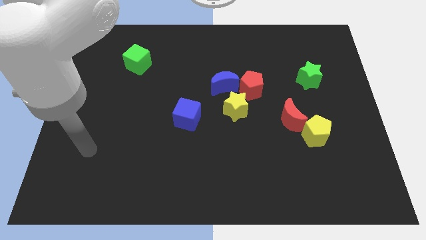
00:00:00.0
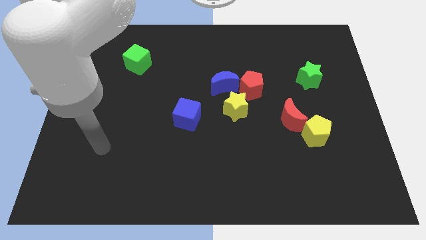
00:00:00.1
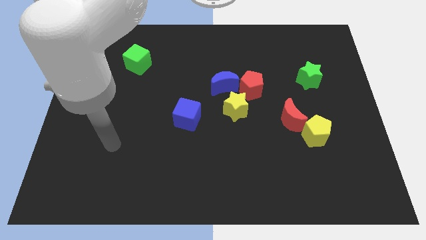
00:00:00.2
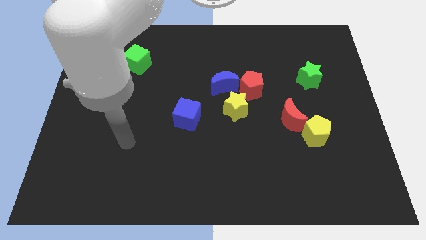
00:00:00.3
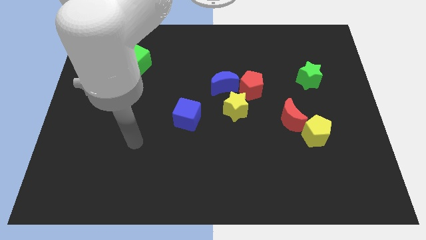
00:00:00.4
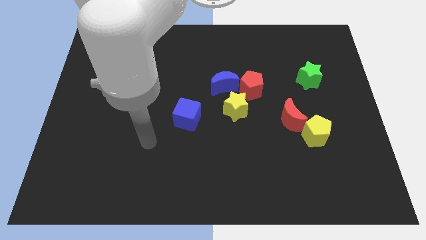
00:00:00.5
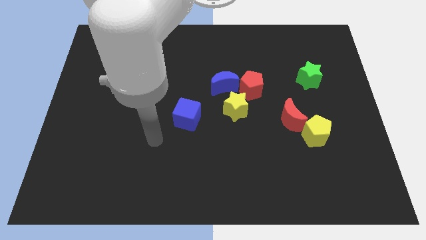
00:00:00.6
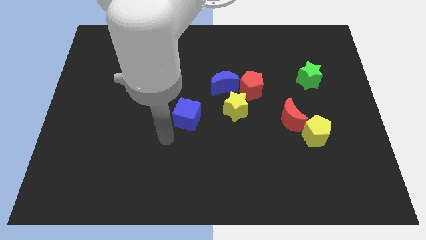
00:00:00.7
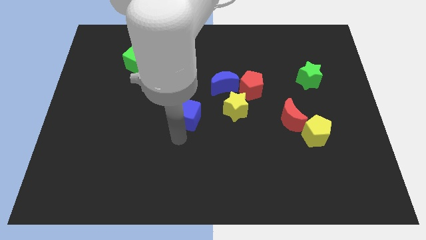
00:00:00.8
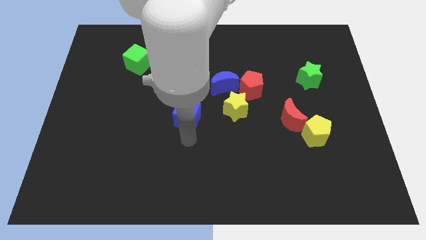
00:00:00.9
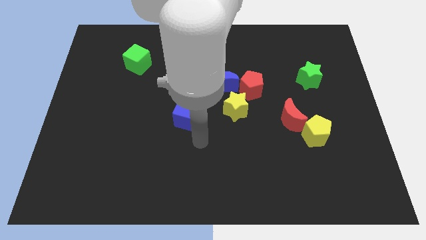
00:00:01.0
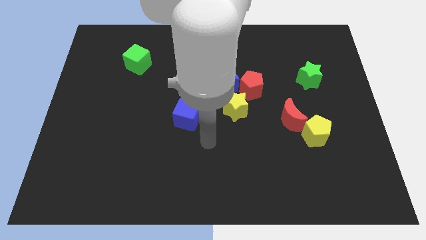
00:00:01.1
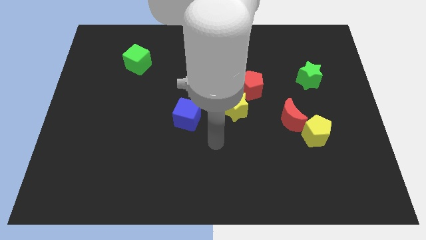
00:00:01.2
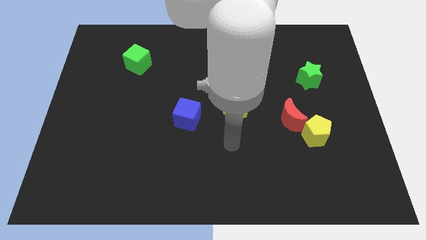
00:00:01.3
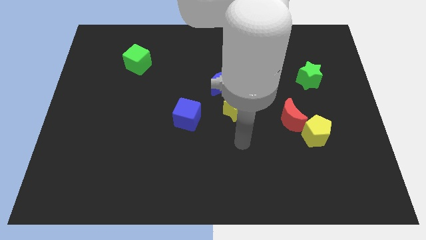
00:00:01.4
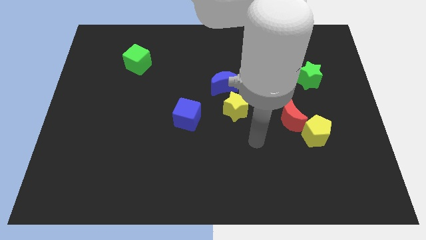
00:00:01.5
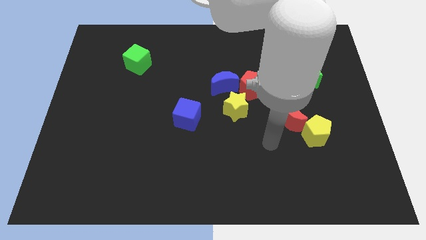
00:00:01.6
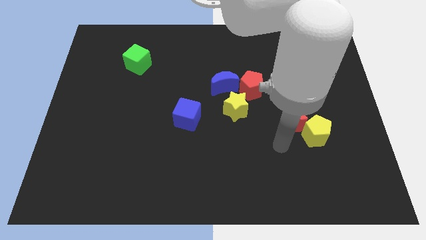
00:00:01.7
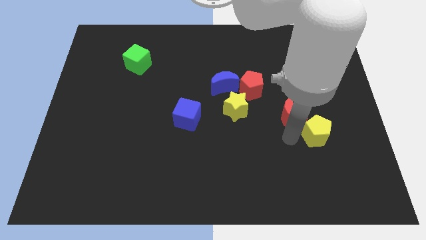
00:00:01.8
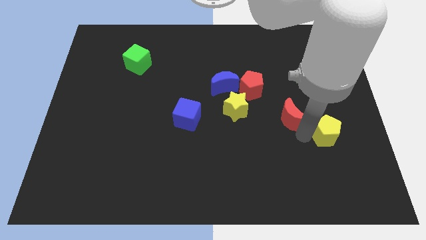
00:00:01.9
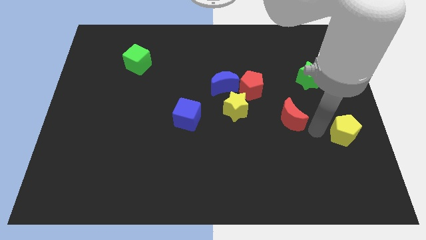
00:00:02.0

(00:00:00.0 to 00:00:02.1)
separate the red moon from the yellow pentagon

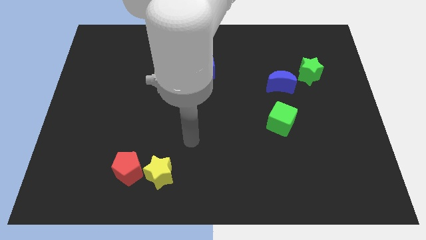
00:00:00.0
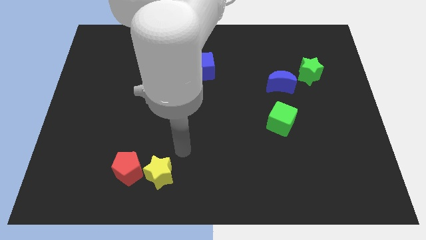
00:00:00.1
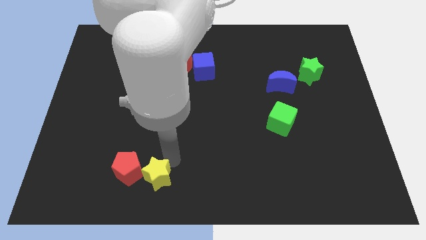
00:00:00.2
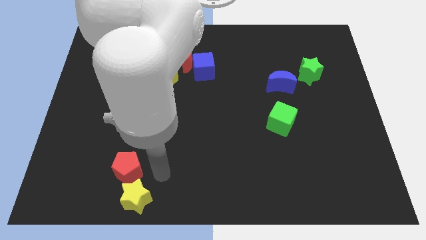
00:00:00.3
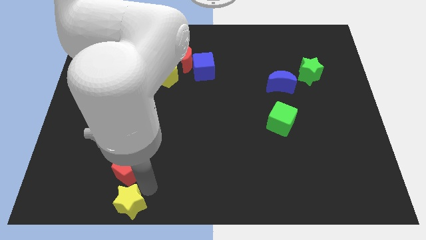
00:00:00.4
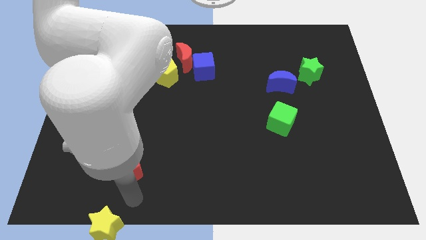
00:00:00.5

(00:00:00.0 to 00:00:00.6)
move the red pentagon away from the yellow star

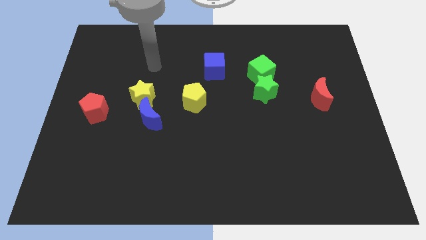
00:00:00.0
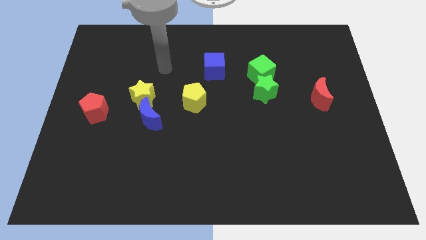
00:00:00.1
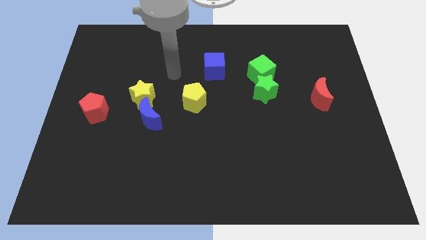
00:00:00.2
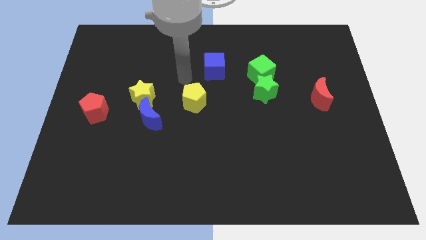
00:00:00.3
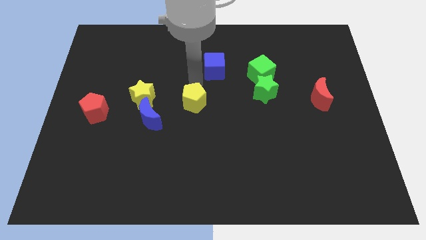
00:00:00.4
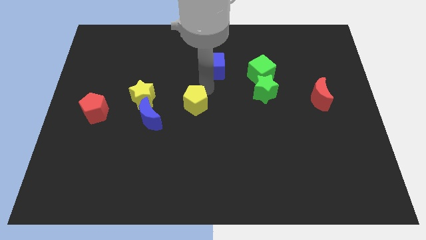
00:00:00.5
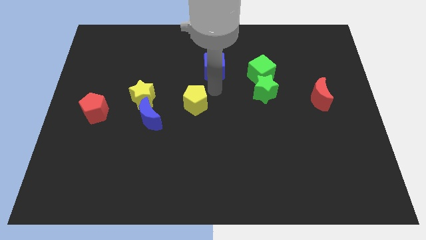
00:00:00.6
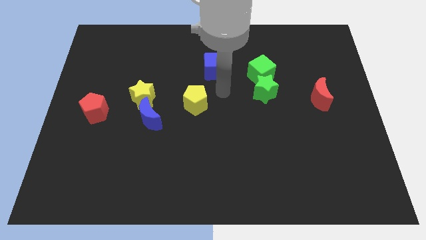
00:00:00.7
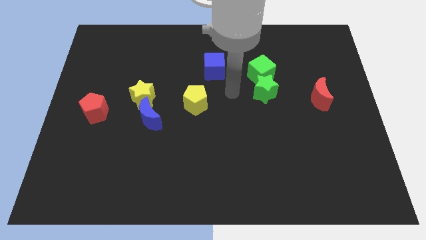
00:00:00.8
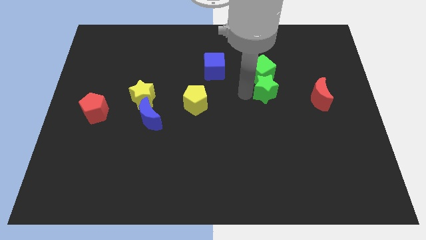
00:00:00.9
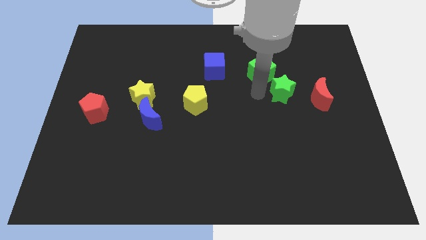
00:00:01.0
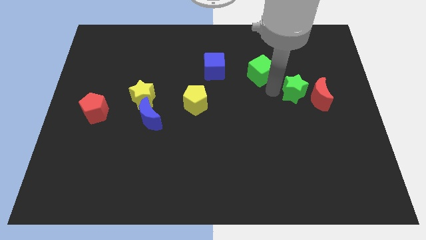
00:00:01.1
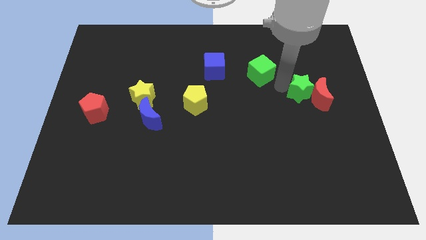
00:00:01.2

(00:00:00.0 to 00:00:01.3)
move the green cube away from the green star

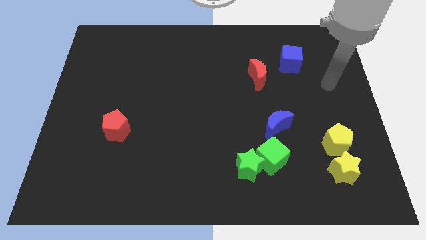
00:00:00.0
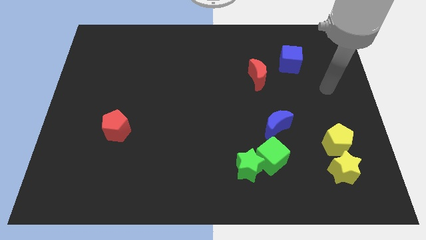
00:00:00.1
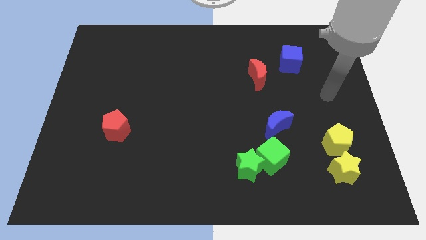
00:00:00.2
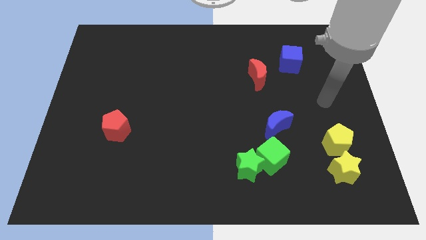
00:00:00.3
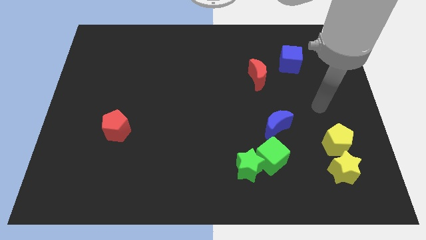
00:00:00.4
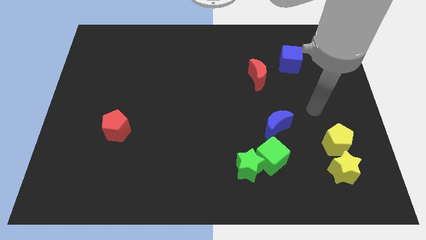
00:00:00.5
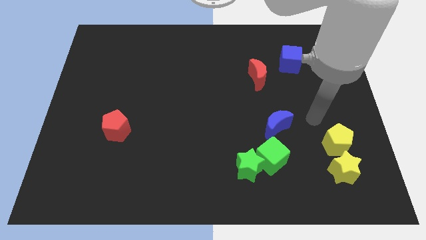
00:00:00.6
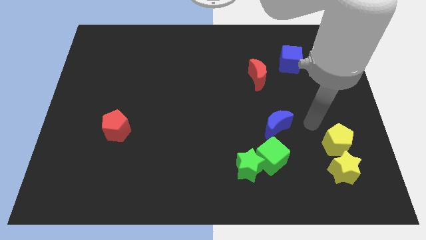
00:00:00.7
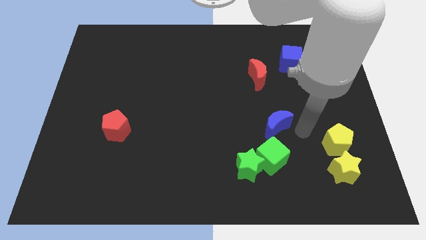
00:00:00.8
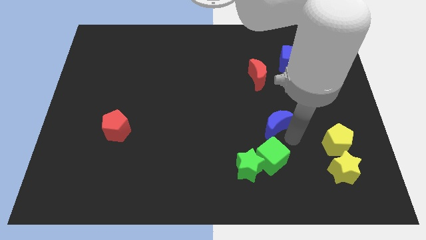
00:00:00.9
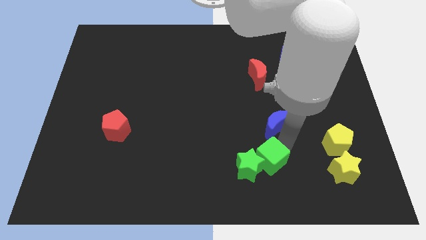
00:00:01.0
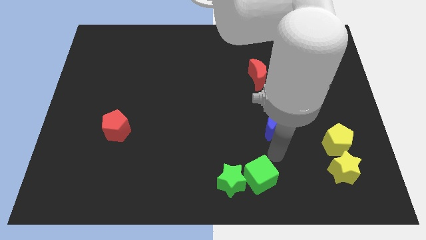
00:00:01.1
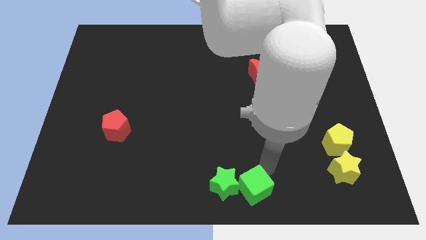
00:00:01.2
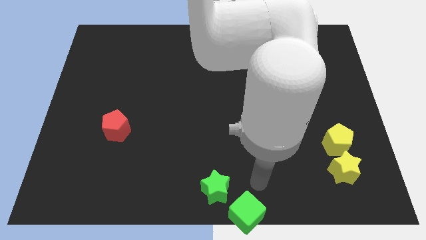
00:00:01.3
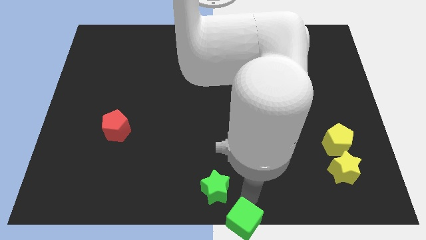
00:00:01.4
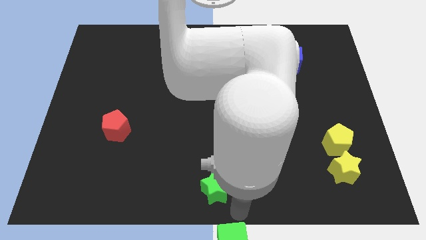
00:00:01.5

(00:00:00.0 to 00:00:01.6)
move the green star away from the green cube

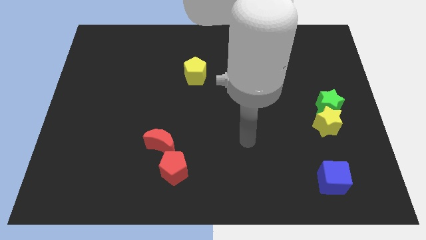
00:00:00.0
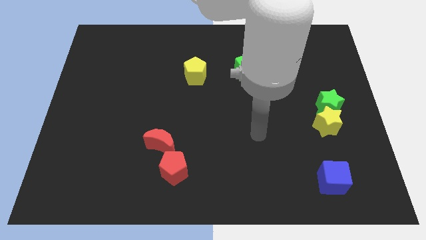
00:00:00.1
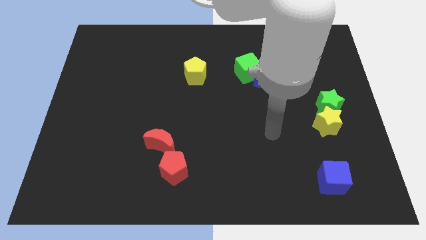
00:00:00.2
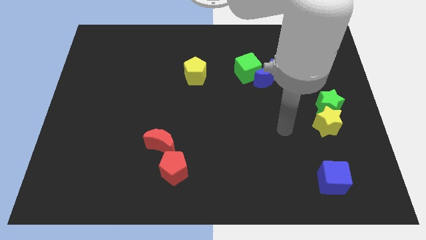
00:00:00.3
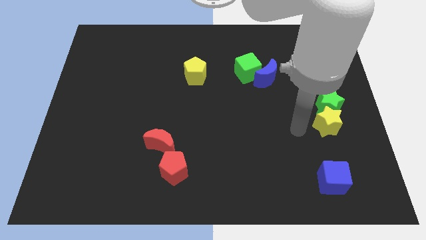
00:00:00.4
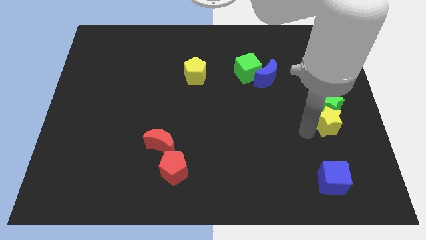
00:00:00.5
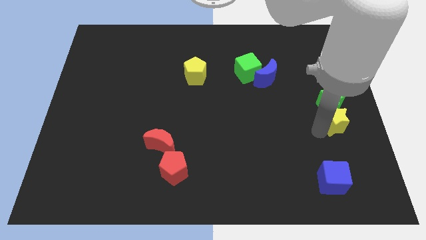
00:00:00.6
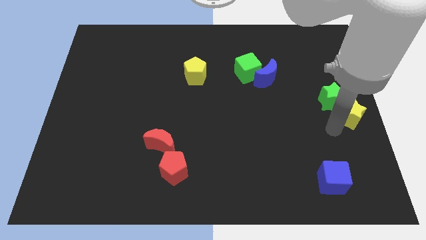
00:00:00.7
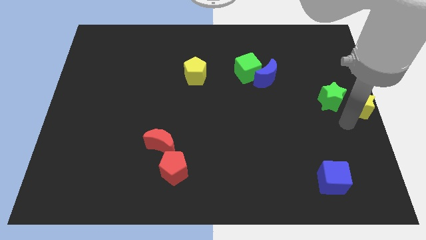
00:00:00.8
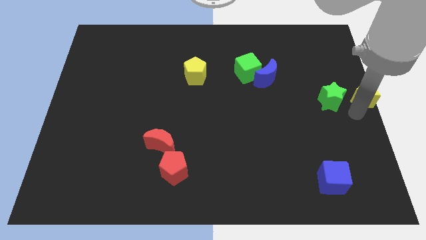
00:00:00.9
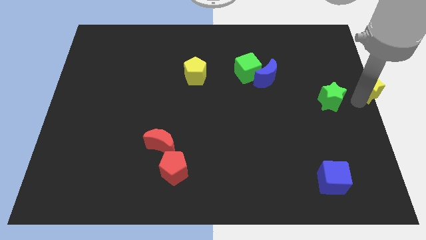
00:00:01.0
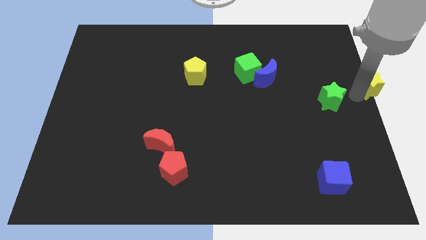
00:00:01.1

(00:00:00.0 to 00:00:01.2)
separate the green star from the yellow star

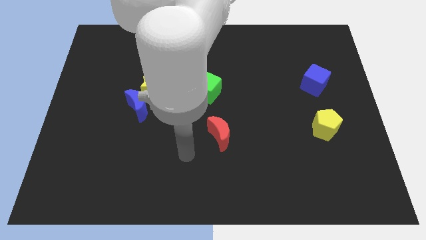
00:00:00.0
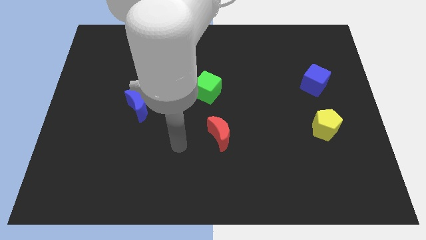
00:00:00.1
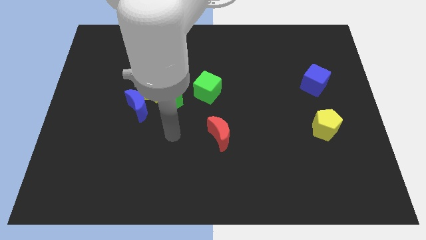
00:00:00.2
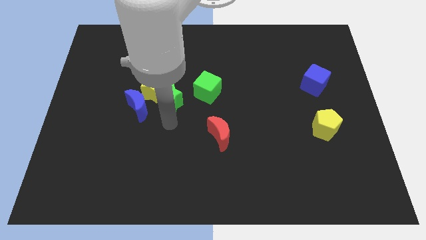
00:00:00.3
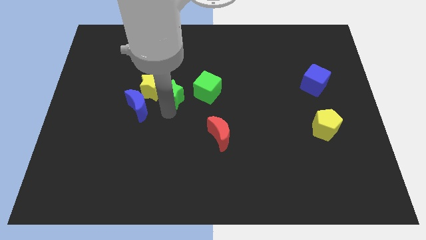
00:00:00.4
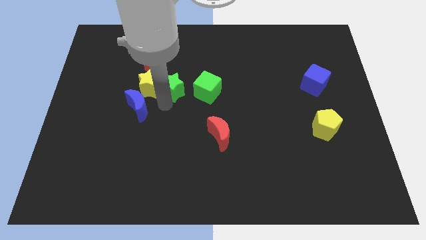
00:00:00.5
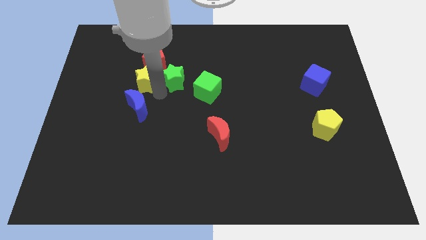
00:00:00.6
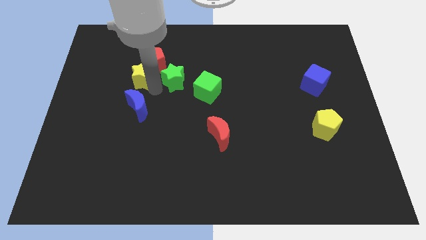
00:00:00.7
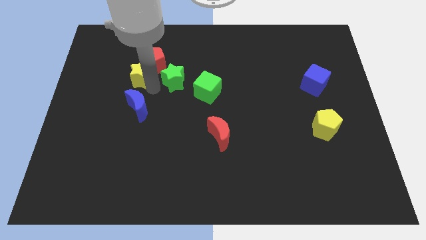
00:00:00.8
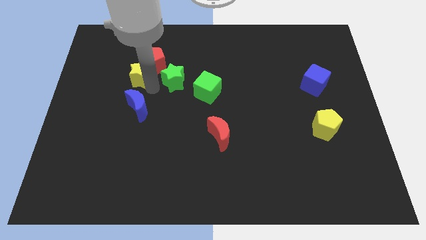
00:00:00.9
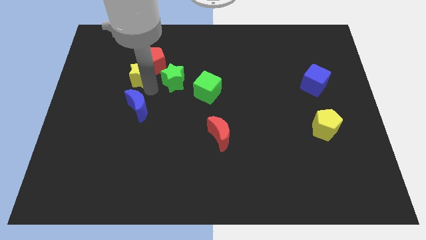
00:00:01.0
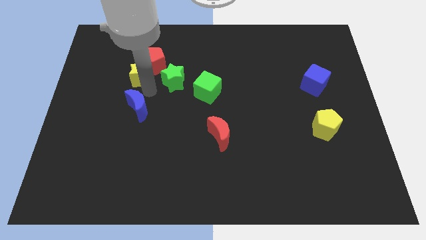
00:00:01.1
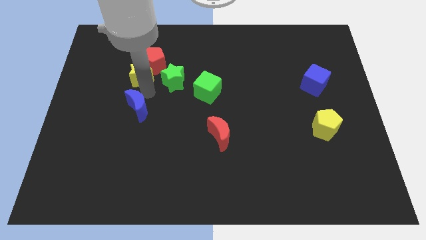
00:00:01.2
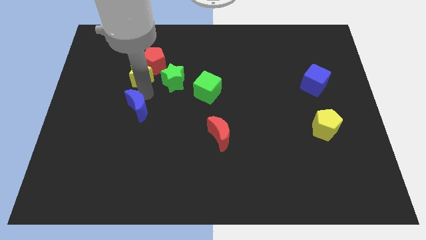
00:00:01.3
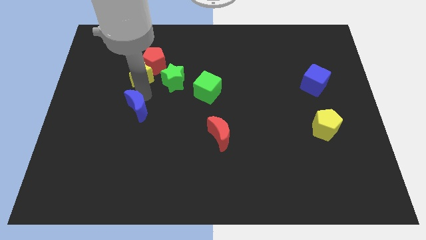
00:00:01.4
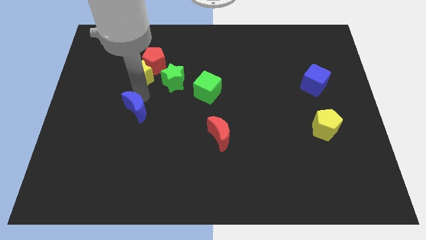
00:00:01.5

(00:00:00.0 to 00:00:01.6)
pull the blue moon apart from the yellow star and green star

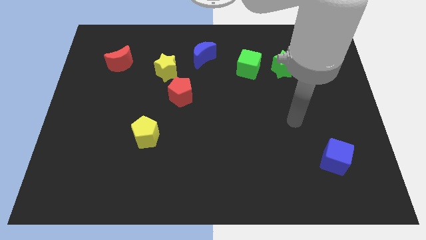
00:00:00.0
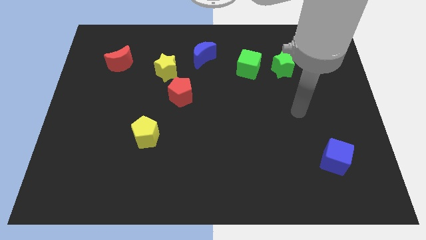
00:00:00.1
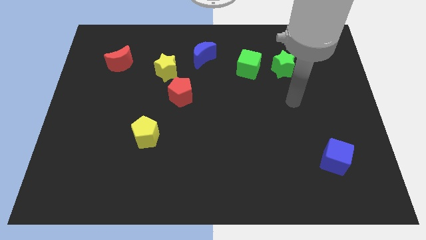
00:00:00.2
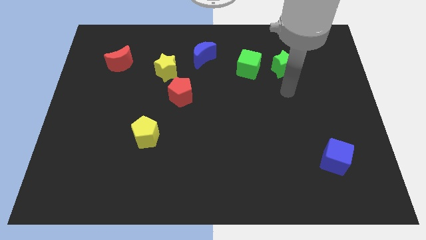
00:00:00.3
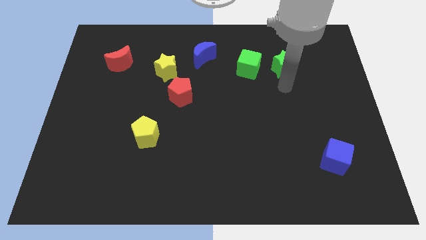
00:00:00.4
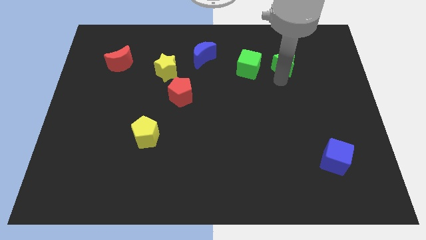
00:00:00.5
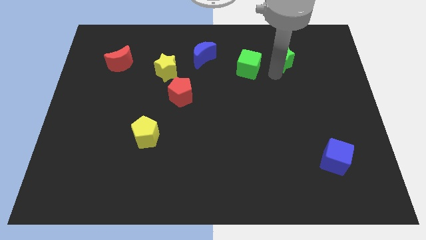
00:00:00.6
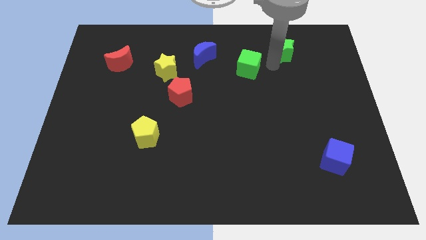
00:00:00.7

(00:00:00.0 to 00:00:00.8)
pull the green cube apart from the green star
